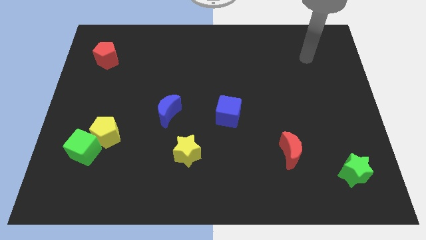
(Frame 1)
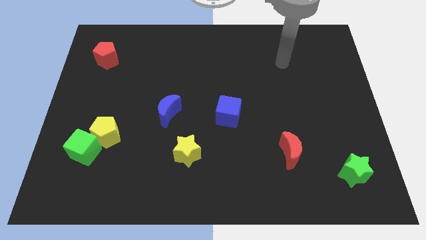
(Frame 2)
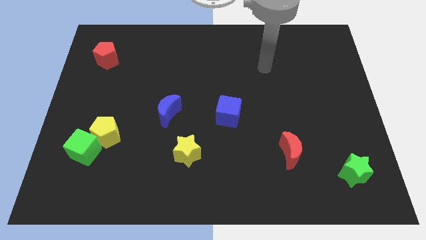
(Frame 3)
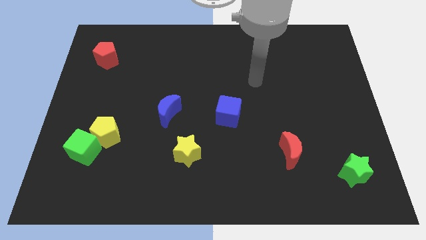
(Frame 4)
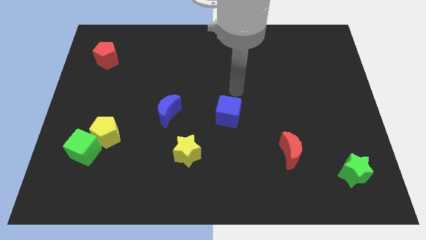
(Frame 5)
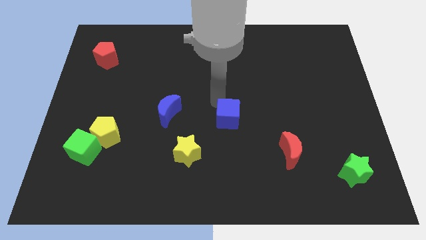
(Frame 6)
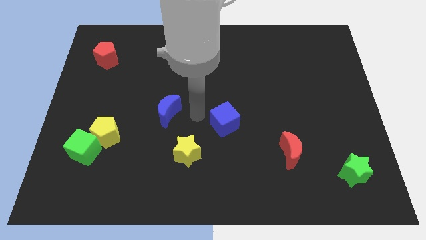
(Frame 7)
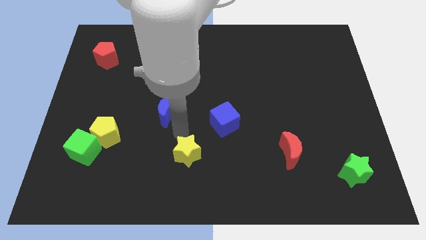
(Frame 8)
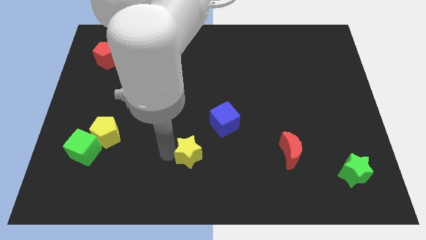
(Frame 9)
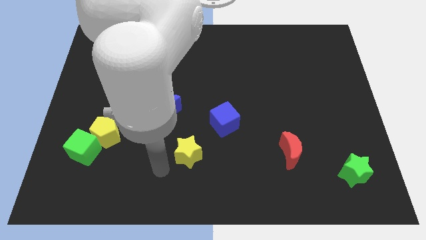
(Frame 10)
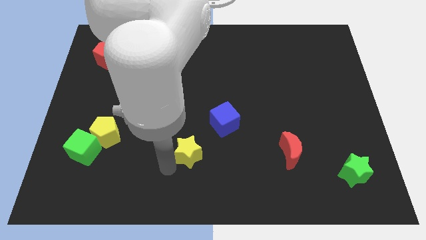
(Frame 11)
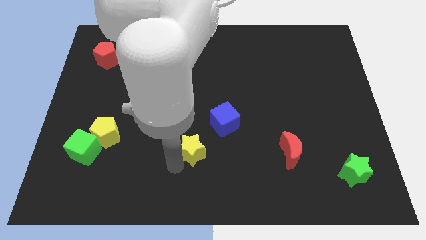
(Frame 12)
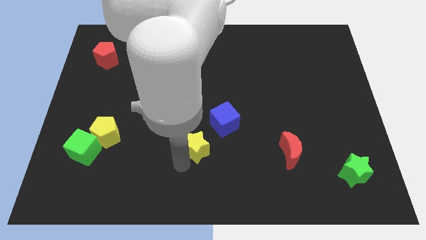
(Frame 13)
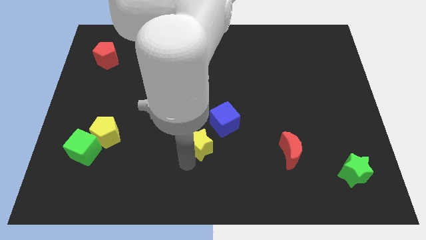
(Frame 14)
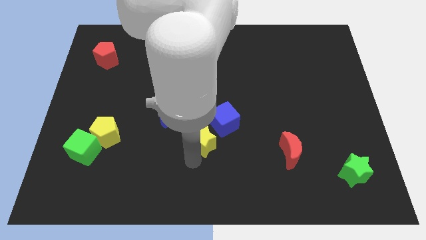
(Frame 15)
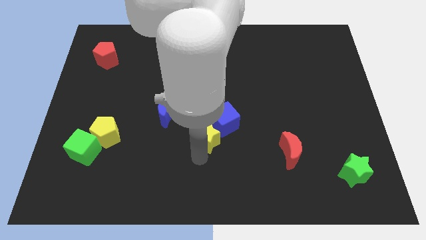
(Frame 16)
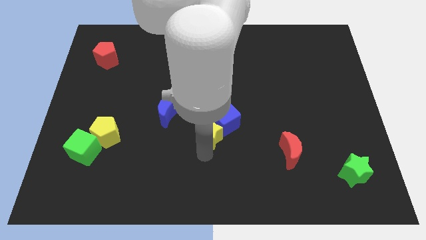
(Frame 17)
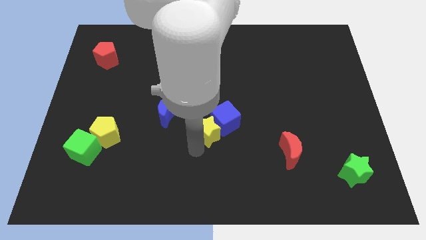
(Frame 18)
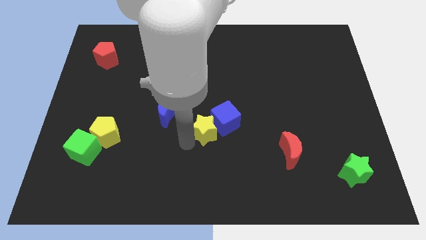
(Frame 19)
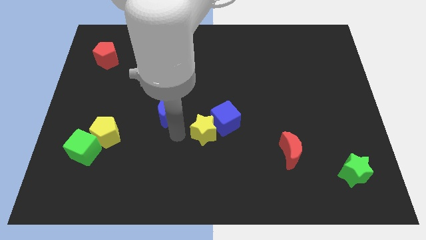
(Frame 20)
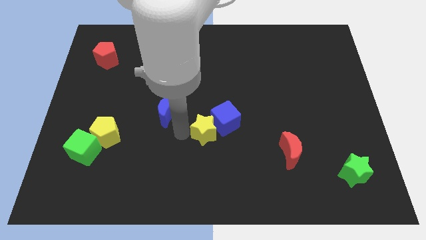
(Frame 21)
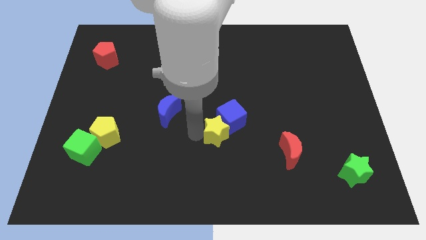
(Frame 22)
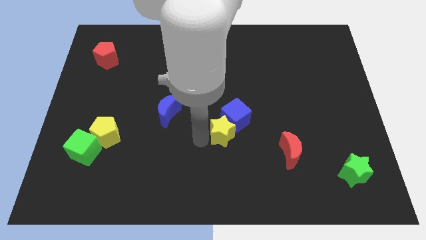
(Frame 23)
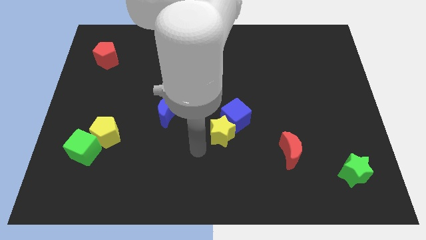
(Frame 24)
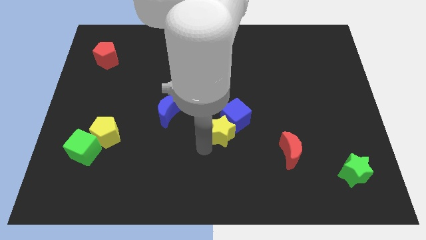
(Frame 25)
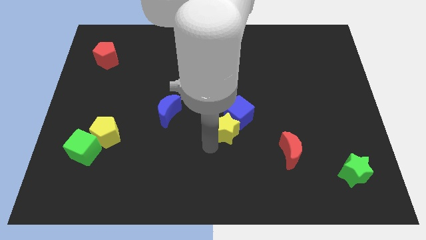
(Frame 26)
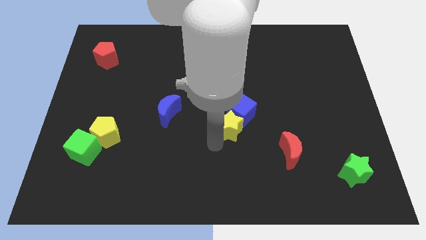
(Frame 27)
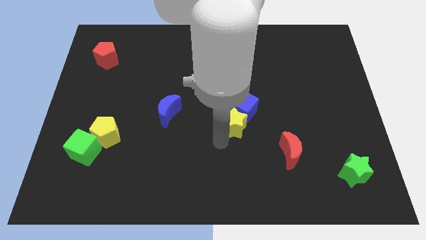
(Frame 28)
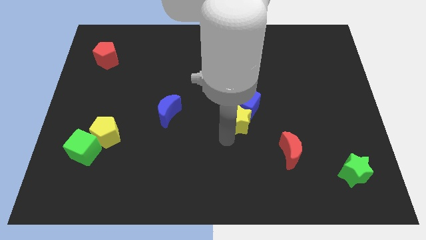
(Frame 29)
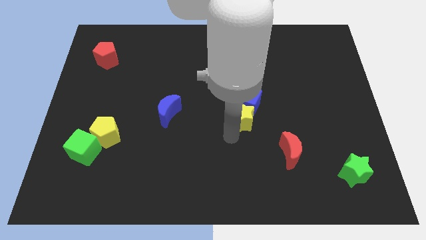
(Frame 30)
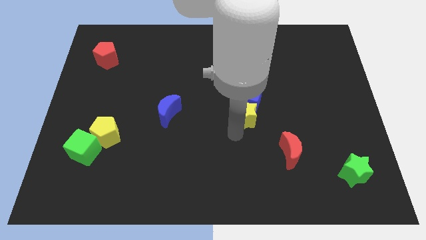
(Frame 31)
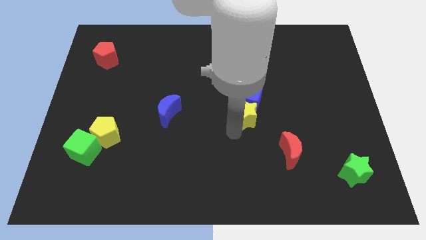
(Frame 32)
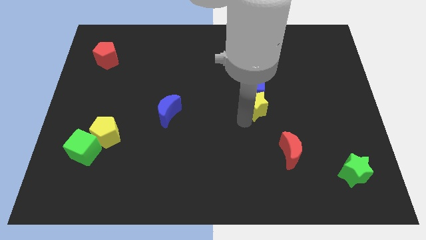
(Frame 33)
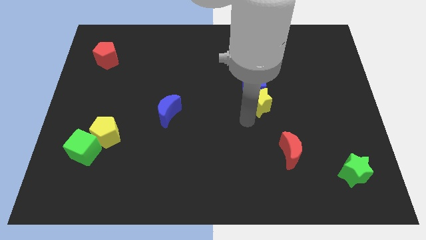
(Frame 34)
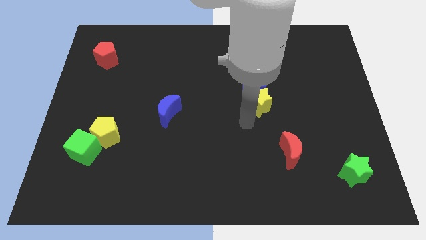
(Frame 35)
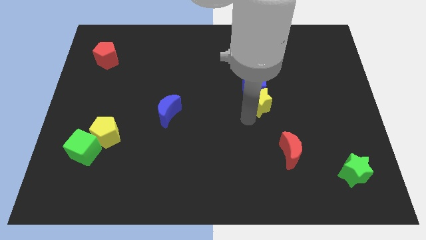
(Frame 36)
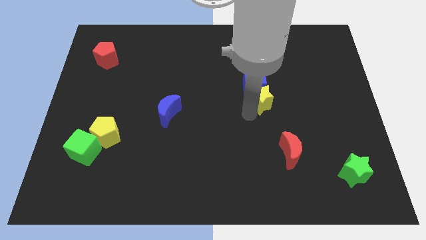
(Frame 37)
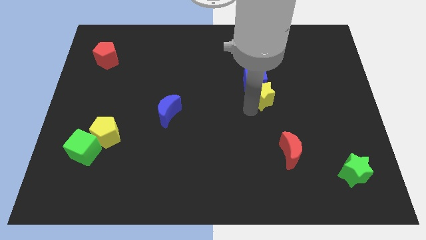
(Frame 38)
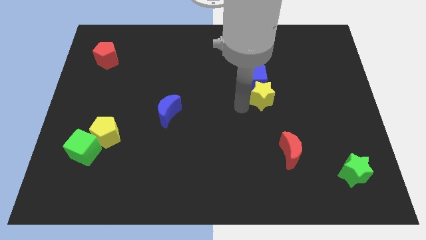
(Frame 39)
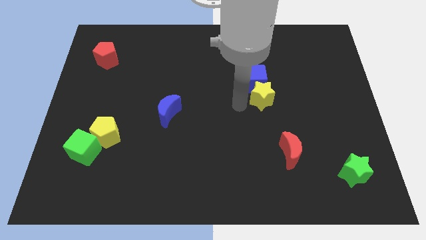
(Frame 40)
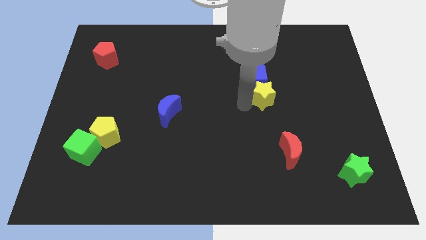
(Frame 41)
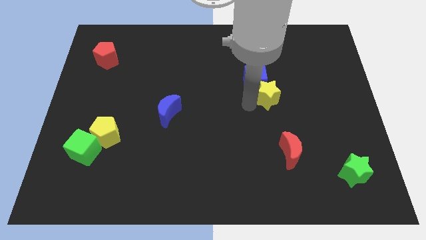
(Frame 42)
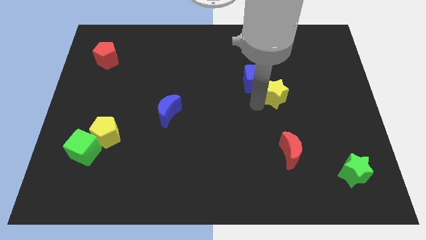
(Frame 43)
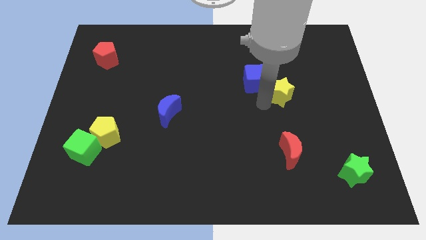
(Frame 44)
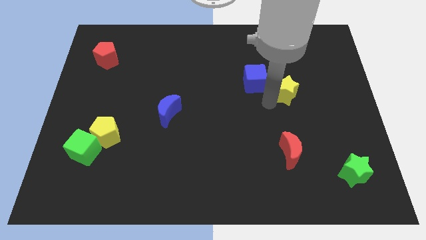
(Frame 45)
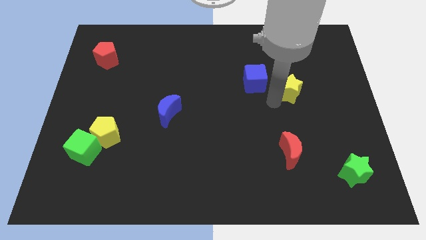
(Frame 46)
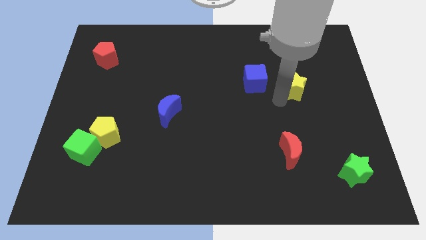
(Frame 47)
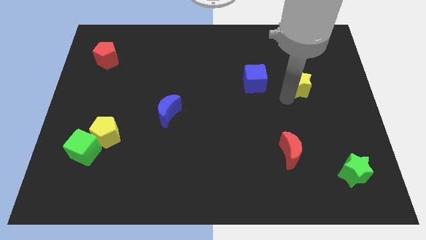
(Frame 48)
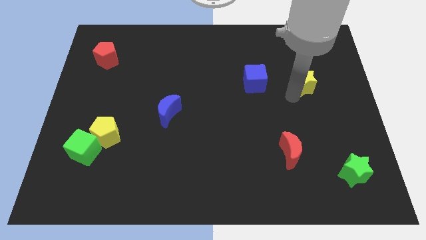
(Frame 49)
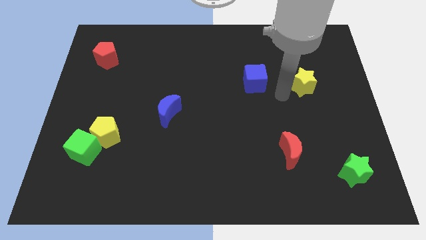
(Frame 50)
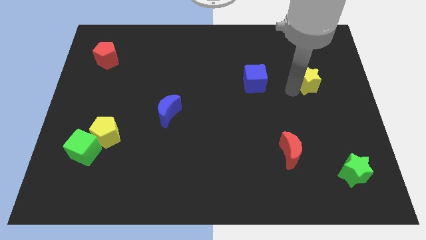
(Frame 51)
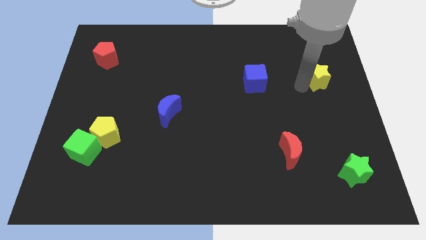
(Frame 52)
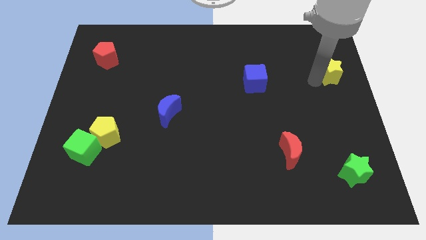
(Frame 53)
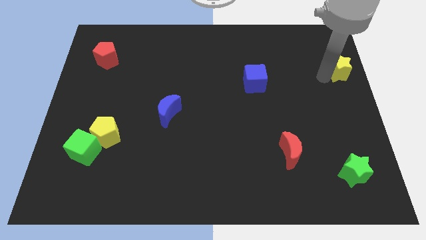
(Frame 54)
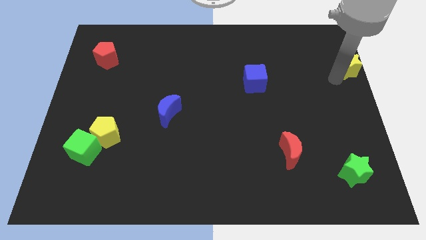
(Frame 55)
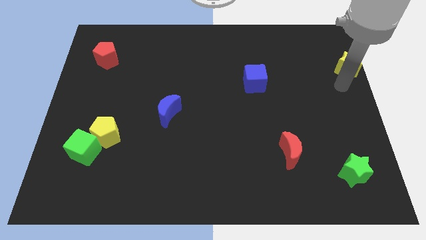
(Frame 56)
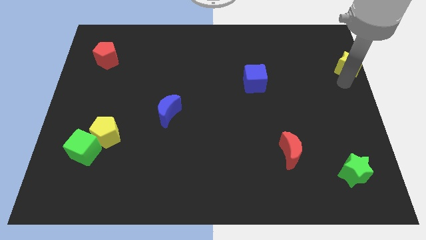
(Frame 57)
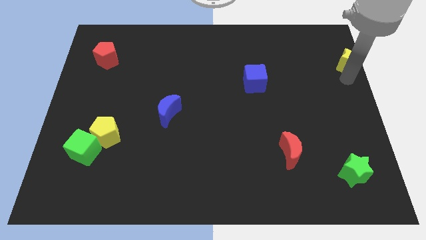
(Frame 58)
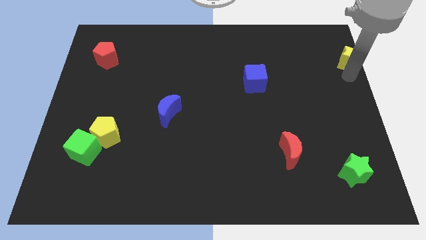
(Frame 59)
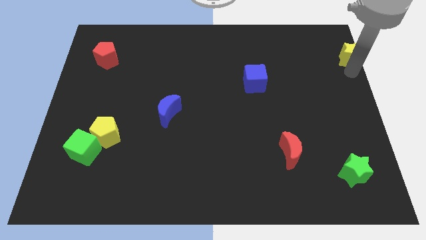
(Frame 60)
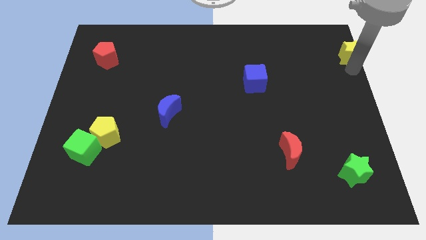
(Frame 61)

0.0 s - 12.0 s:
slide the yellow star to the upper right corner
